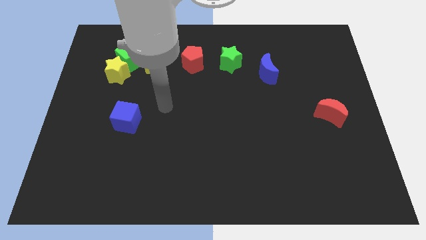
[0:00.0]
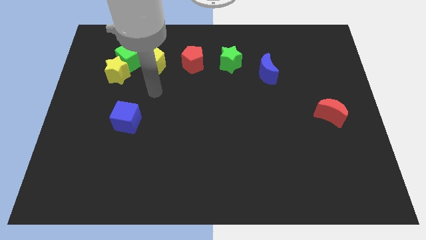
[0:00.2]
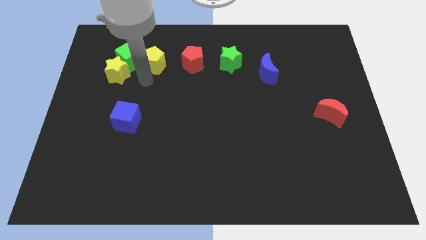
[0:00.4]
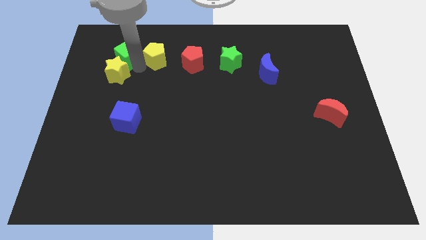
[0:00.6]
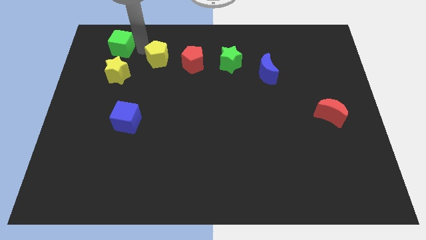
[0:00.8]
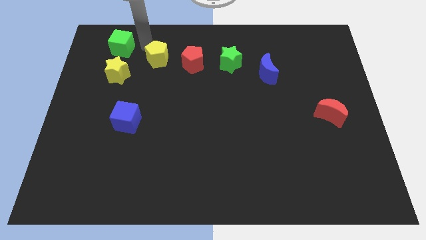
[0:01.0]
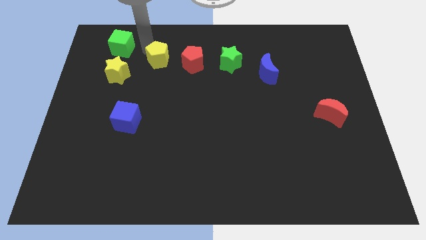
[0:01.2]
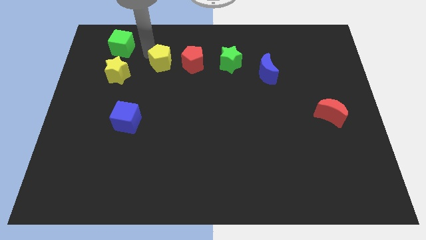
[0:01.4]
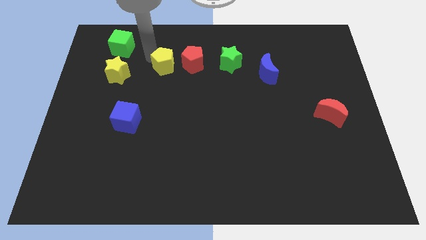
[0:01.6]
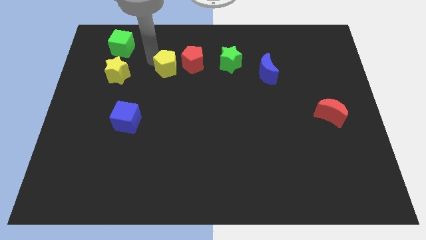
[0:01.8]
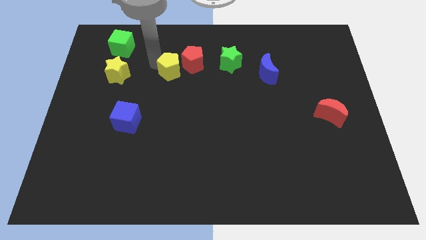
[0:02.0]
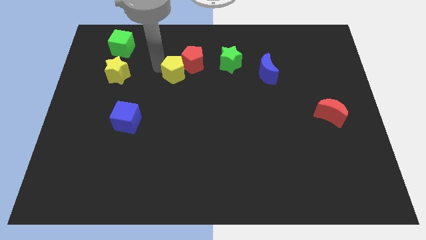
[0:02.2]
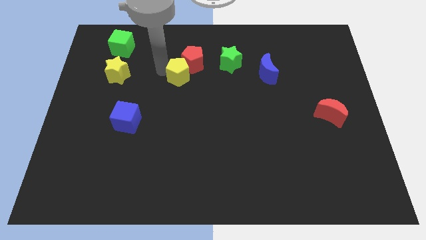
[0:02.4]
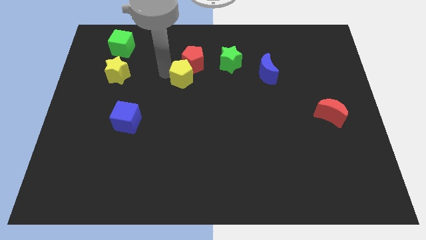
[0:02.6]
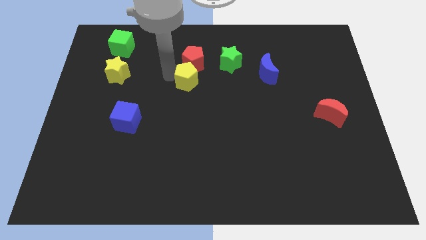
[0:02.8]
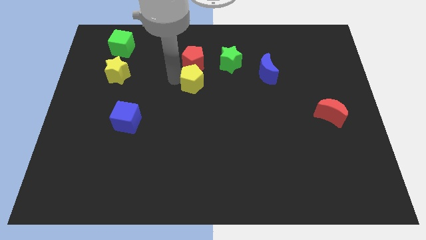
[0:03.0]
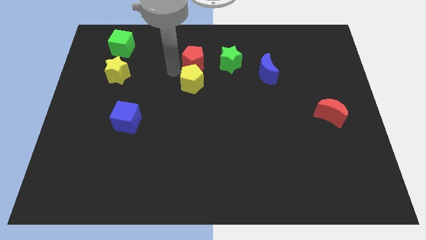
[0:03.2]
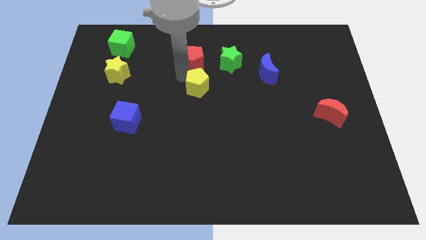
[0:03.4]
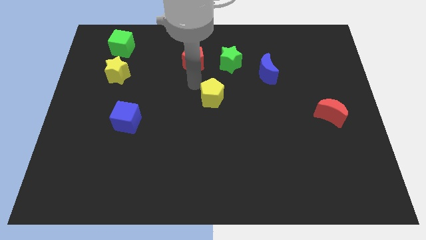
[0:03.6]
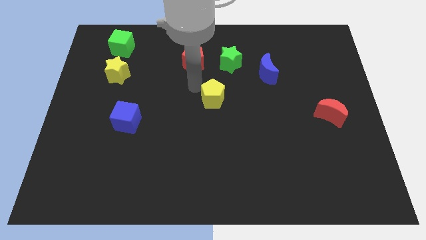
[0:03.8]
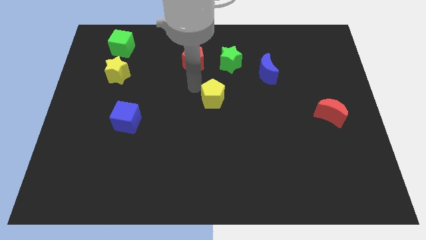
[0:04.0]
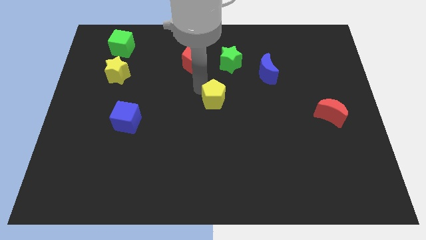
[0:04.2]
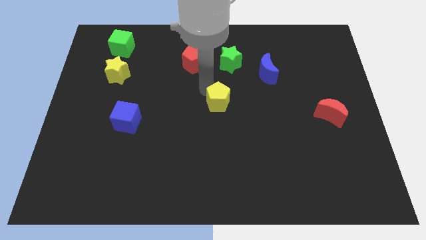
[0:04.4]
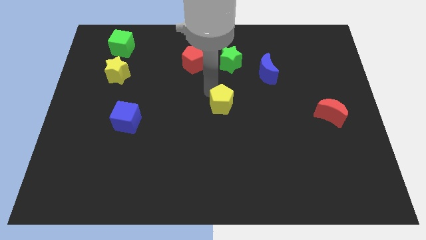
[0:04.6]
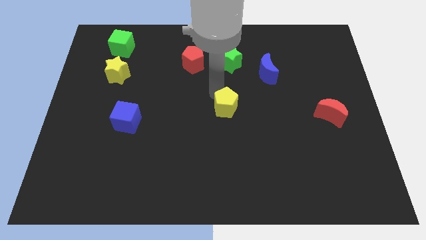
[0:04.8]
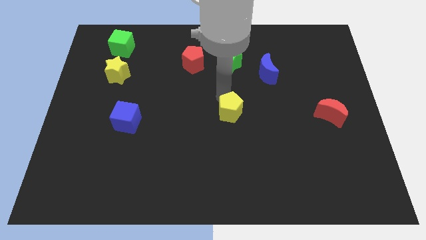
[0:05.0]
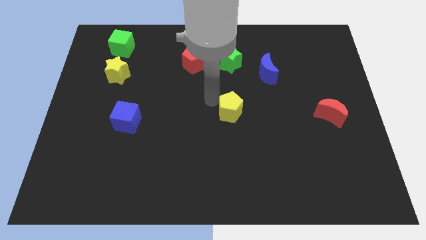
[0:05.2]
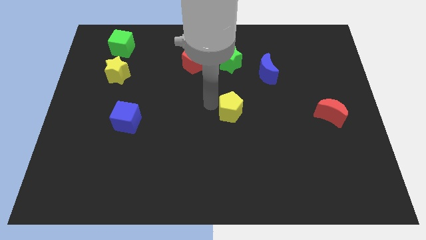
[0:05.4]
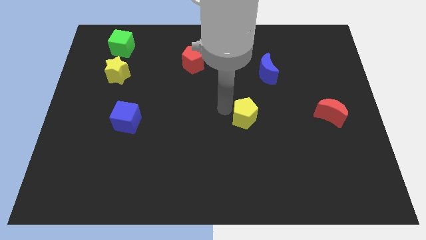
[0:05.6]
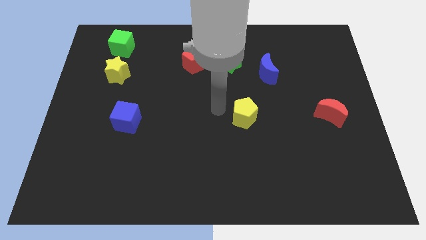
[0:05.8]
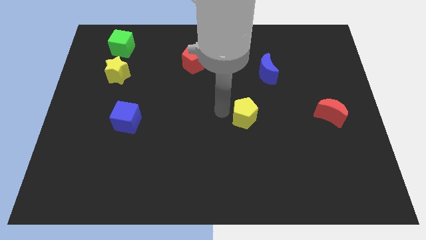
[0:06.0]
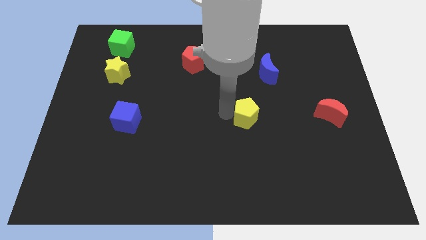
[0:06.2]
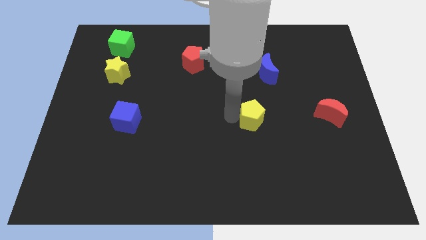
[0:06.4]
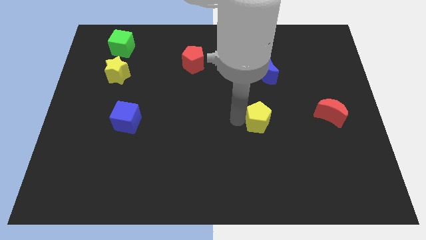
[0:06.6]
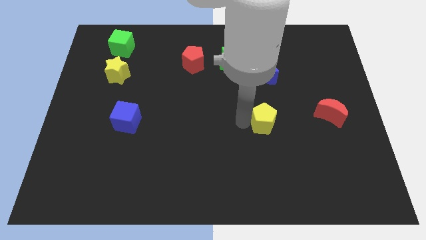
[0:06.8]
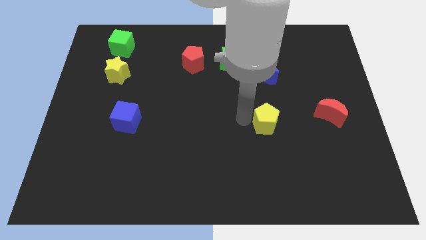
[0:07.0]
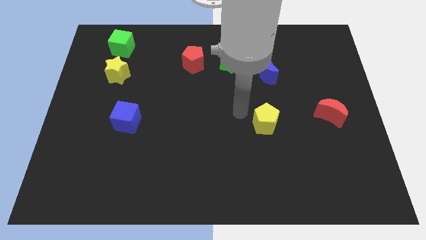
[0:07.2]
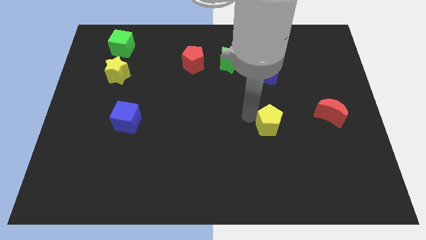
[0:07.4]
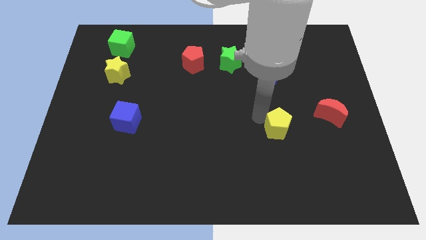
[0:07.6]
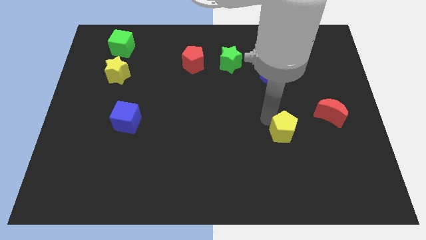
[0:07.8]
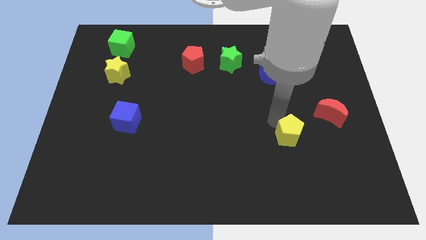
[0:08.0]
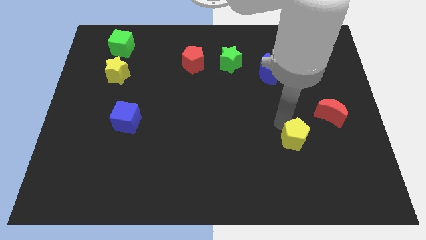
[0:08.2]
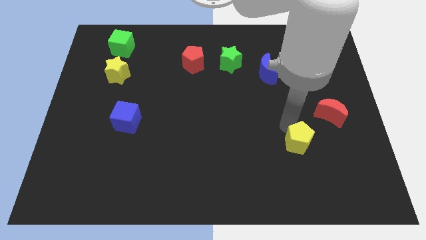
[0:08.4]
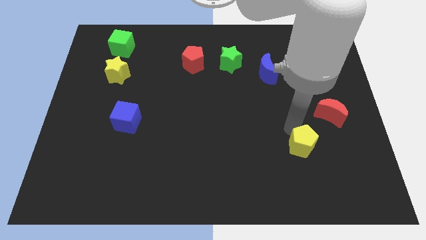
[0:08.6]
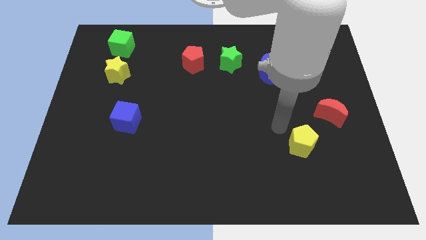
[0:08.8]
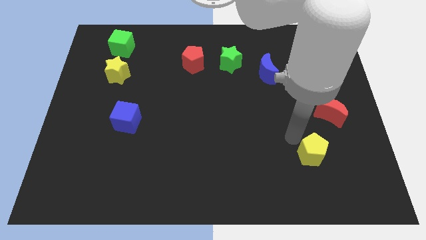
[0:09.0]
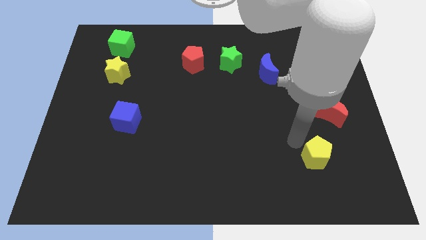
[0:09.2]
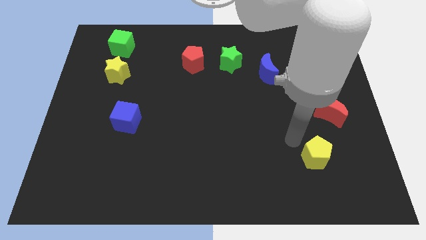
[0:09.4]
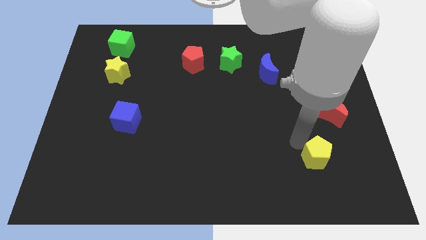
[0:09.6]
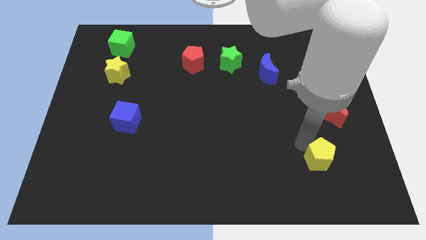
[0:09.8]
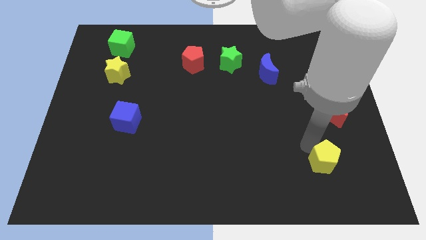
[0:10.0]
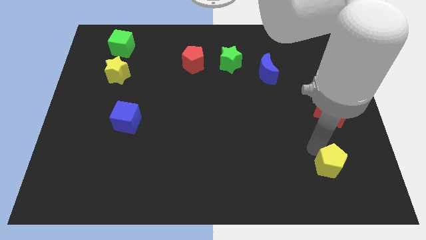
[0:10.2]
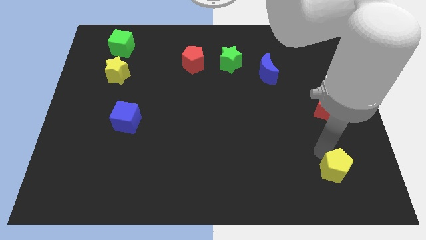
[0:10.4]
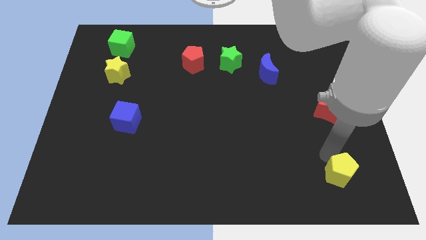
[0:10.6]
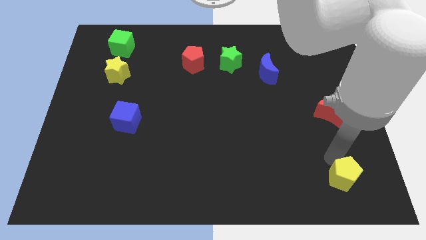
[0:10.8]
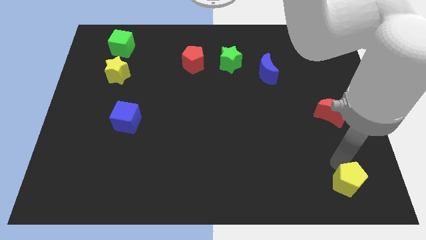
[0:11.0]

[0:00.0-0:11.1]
slide the yellow pentagon to the bottom right corner
